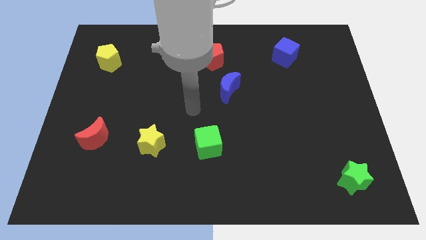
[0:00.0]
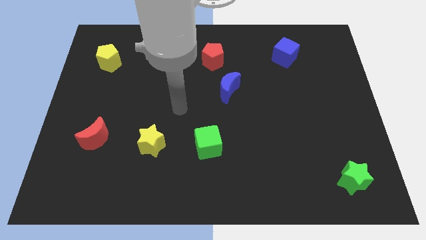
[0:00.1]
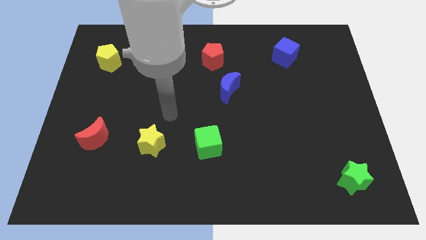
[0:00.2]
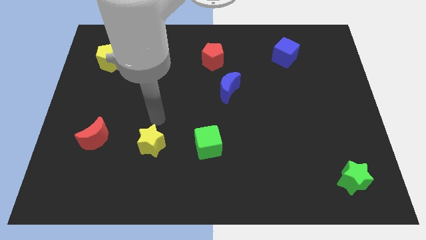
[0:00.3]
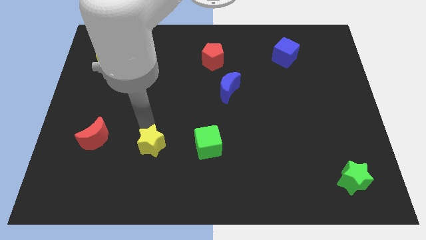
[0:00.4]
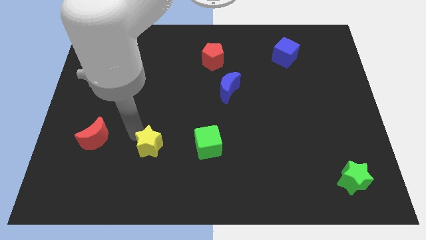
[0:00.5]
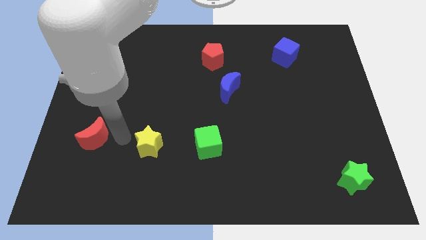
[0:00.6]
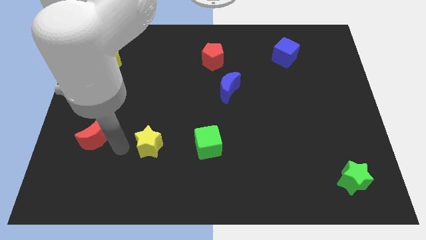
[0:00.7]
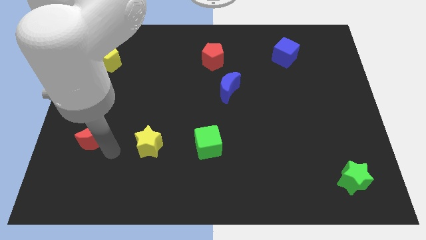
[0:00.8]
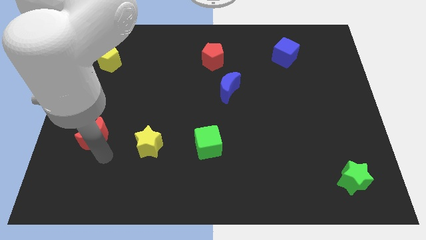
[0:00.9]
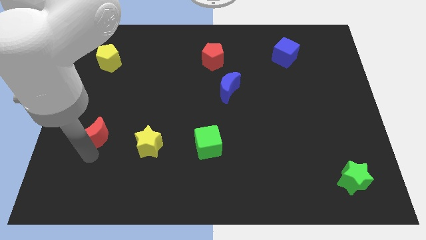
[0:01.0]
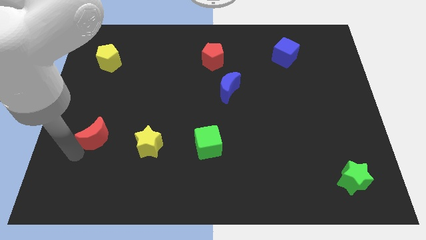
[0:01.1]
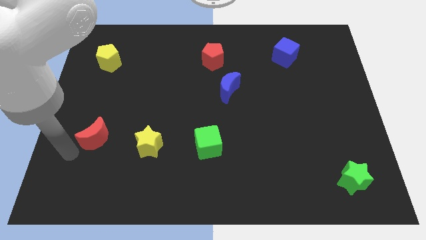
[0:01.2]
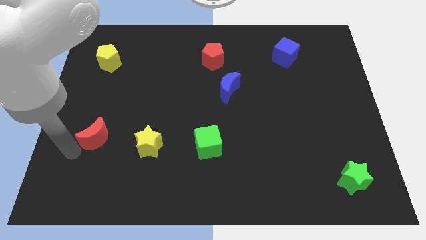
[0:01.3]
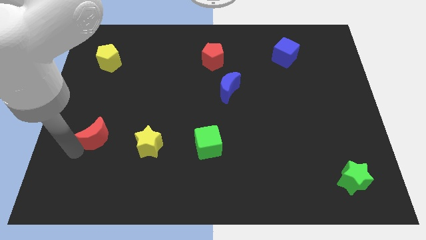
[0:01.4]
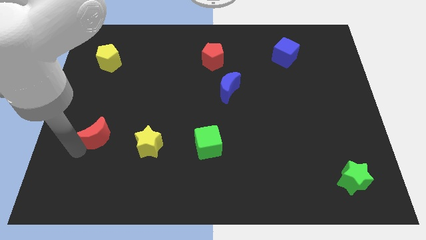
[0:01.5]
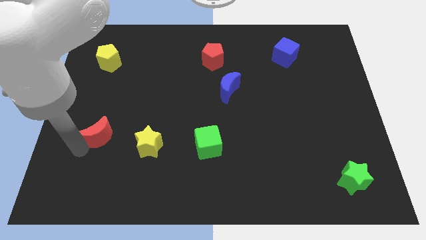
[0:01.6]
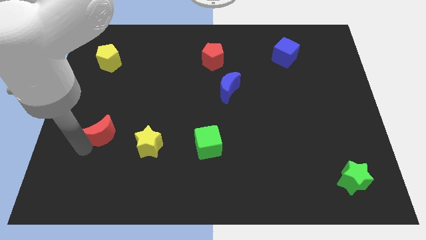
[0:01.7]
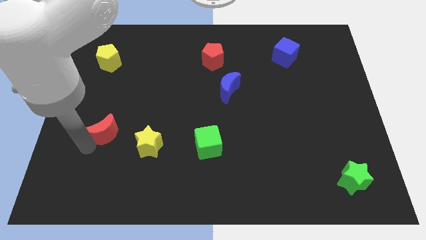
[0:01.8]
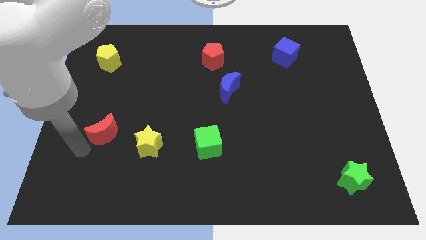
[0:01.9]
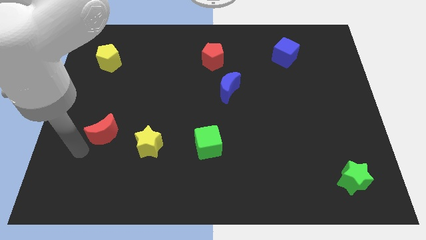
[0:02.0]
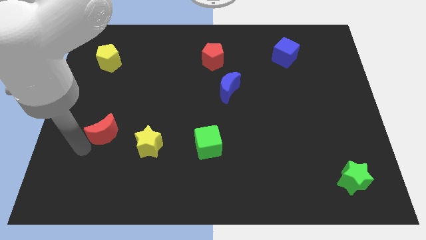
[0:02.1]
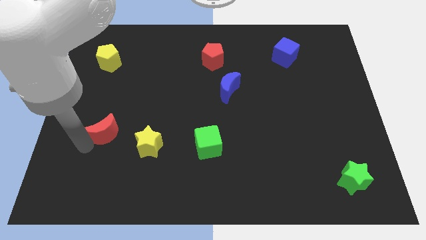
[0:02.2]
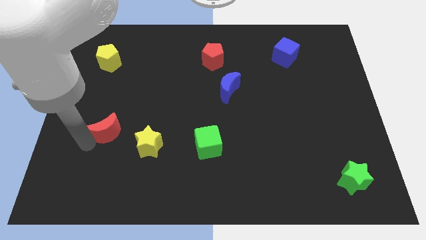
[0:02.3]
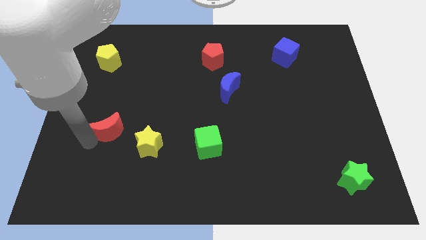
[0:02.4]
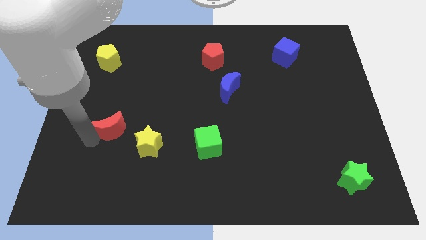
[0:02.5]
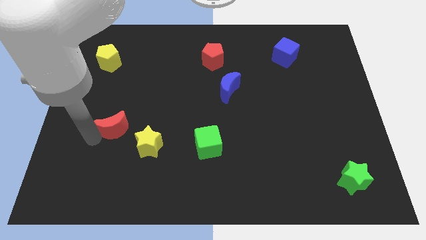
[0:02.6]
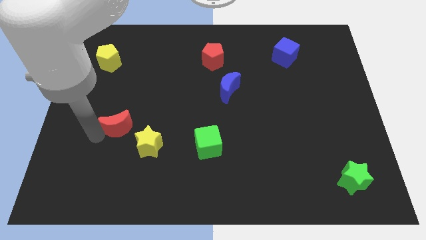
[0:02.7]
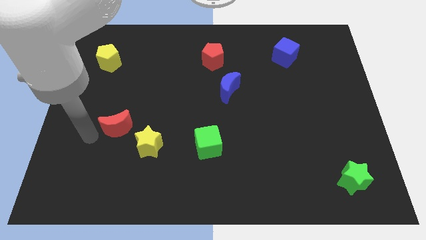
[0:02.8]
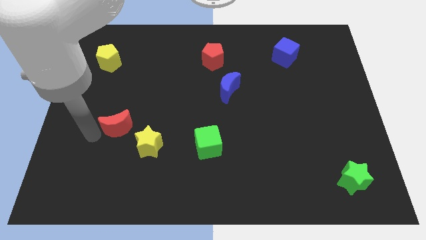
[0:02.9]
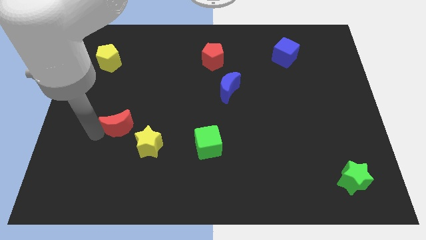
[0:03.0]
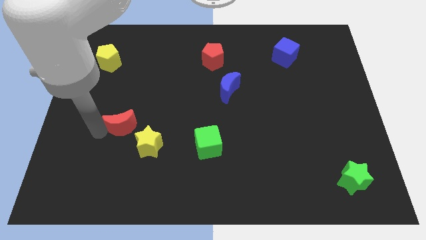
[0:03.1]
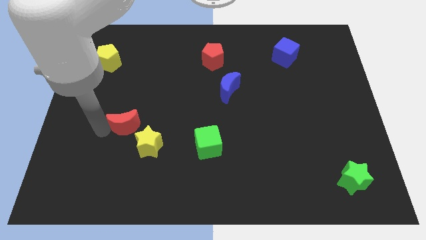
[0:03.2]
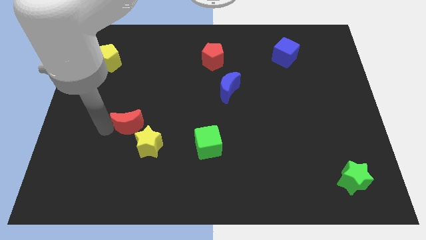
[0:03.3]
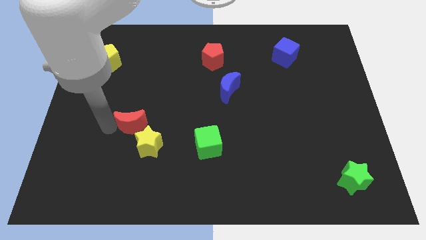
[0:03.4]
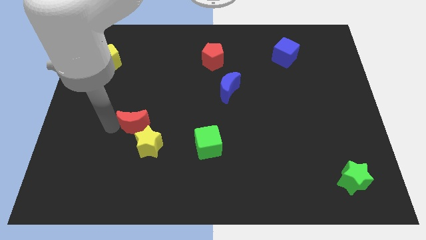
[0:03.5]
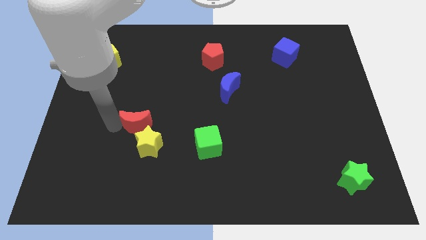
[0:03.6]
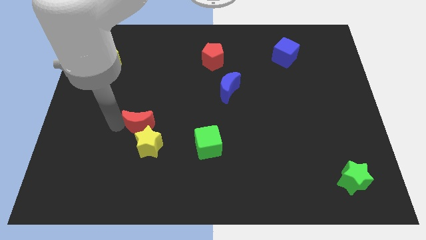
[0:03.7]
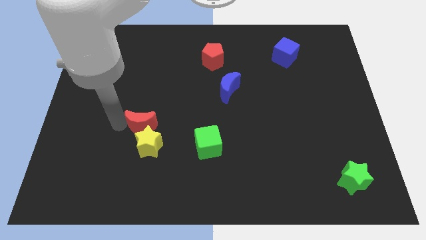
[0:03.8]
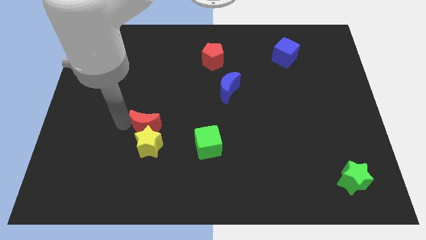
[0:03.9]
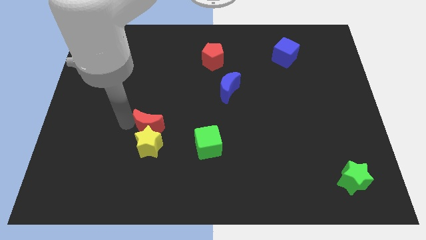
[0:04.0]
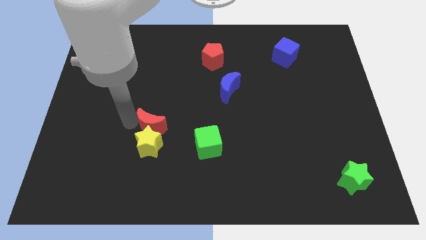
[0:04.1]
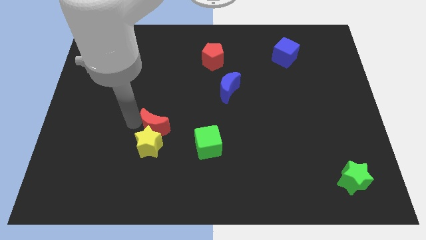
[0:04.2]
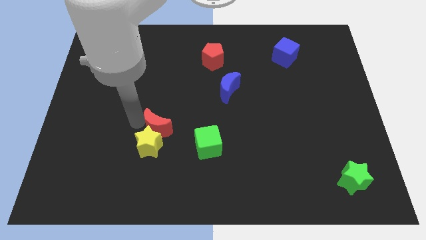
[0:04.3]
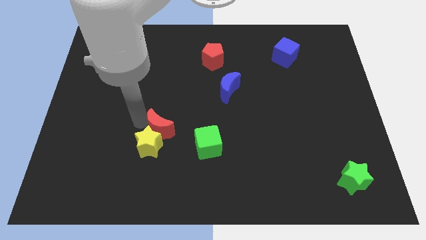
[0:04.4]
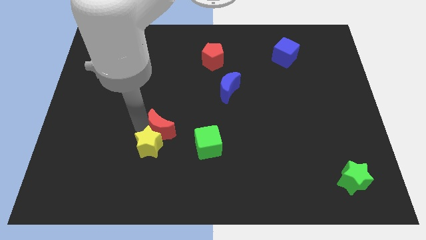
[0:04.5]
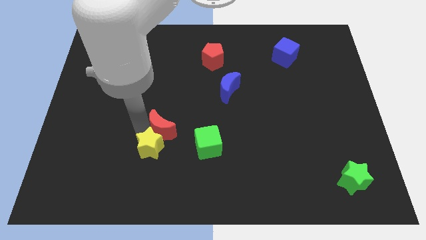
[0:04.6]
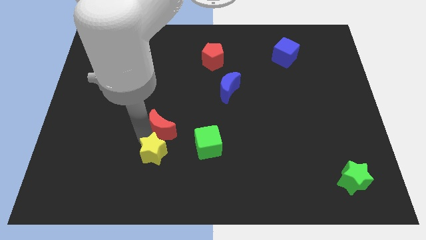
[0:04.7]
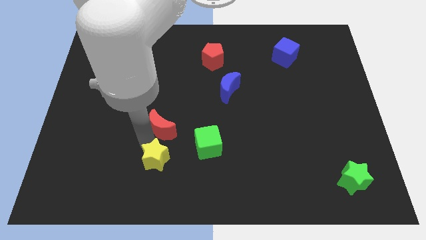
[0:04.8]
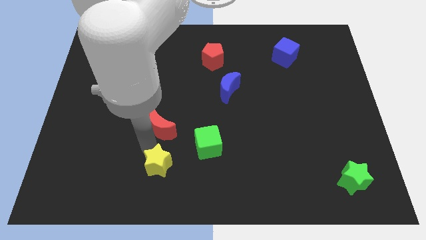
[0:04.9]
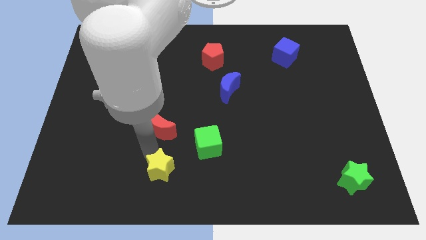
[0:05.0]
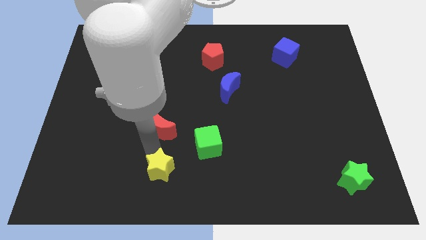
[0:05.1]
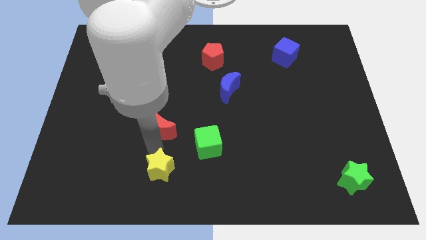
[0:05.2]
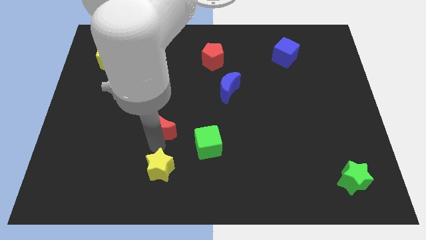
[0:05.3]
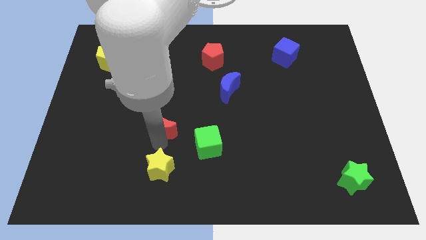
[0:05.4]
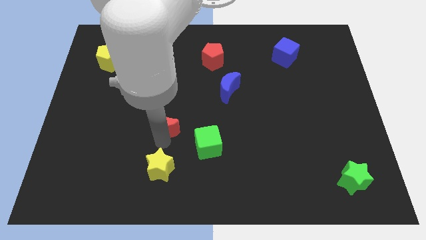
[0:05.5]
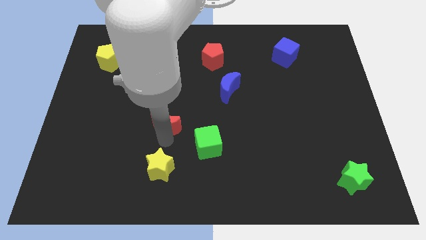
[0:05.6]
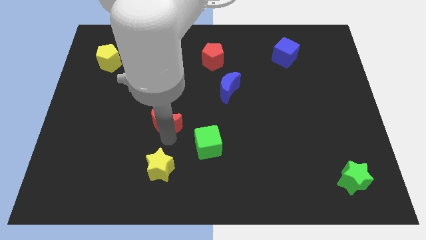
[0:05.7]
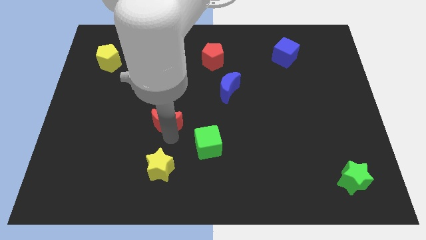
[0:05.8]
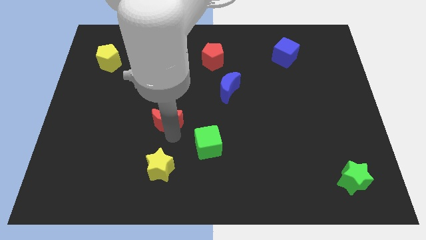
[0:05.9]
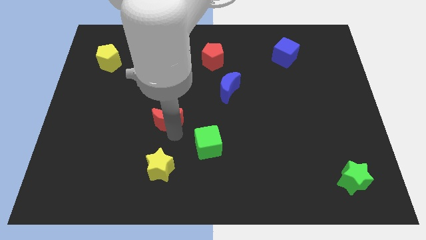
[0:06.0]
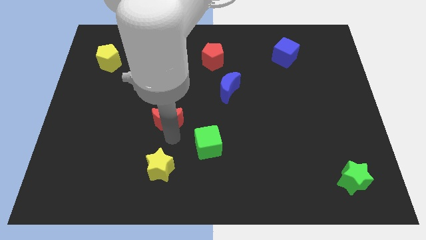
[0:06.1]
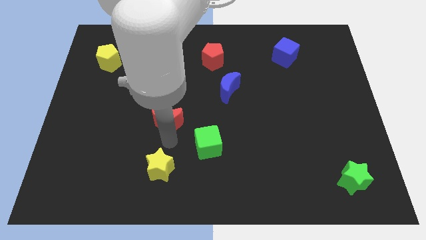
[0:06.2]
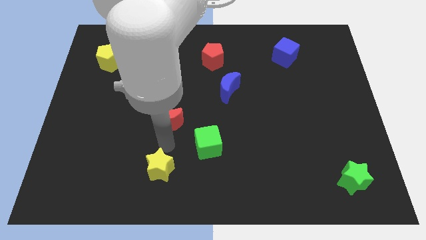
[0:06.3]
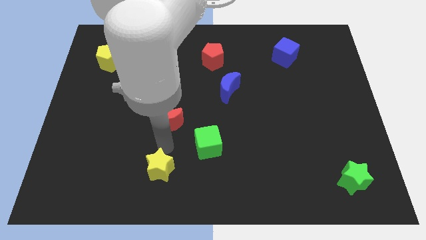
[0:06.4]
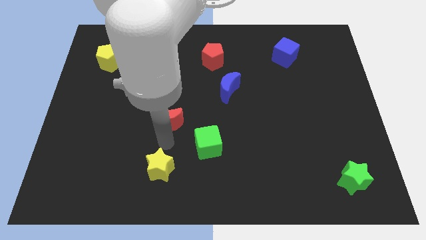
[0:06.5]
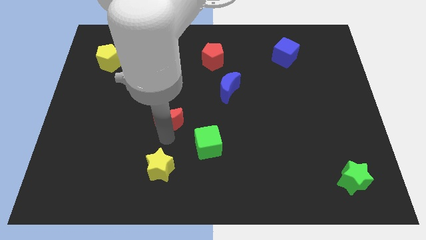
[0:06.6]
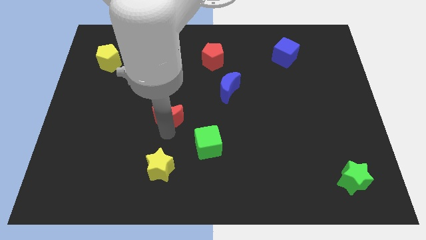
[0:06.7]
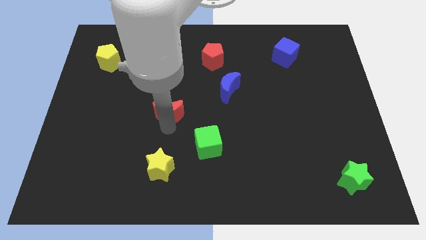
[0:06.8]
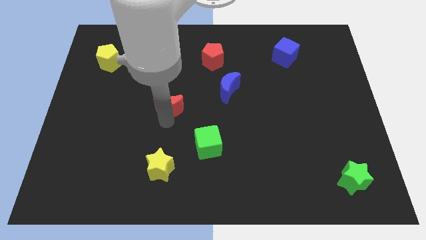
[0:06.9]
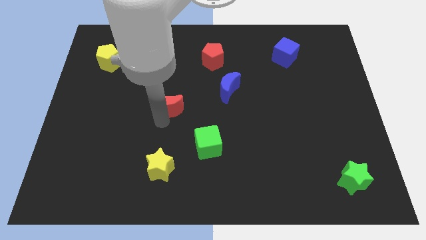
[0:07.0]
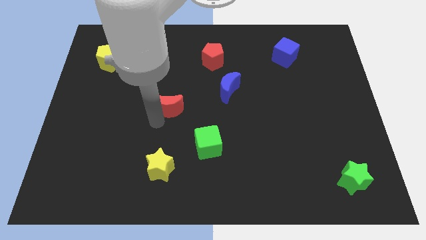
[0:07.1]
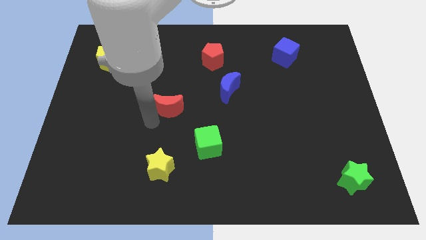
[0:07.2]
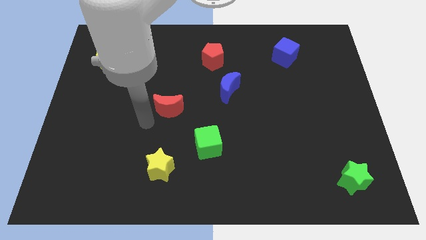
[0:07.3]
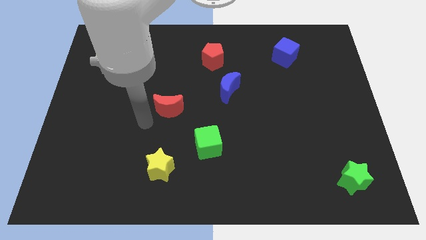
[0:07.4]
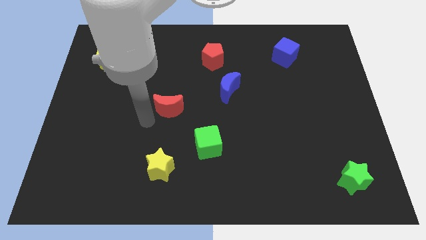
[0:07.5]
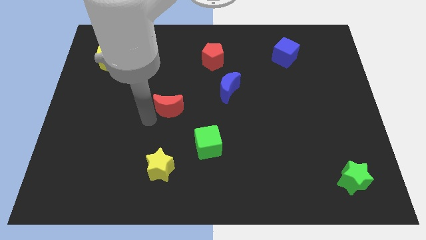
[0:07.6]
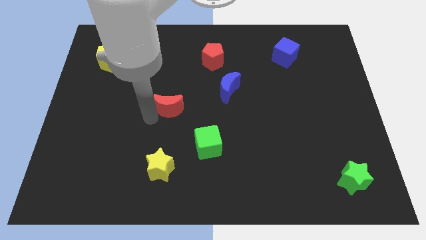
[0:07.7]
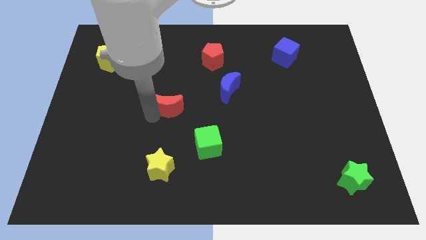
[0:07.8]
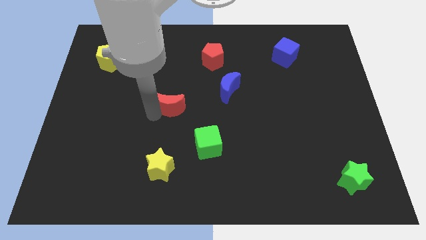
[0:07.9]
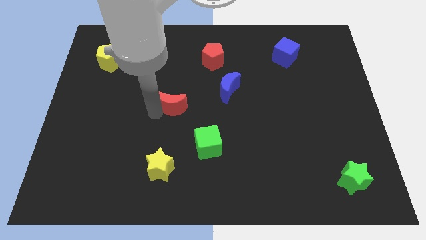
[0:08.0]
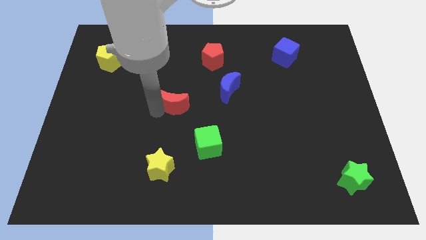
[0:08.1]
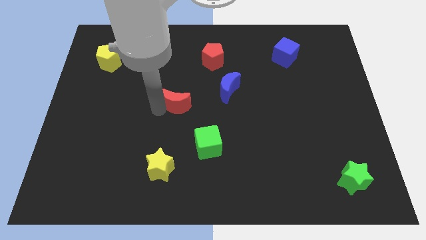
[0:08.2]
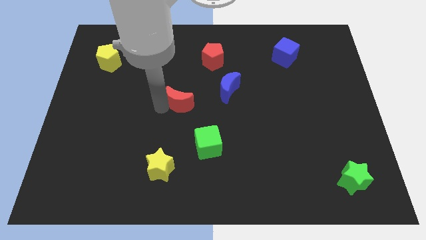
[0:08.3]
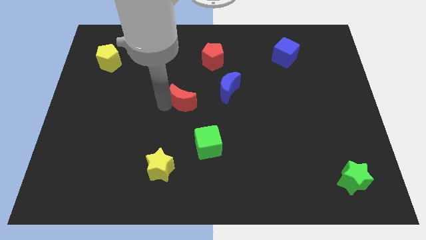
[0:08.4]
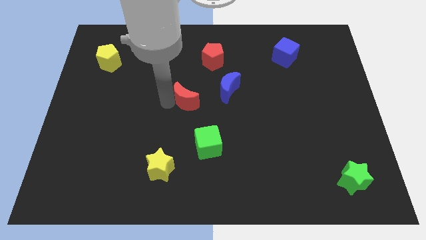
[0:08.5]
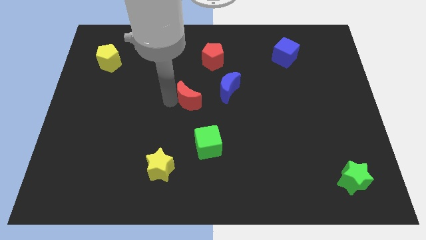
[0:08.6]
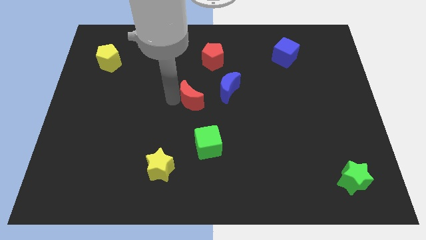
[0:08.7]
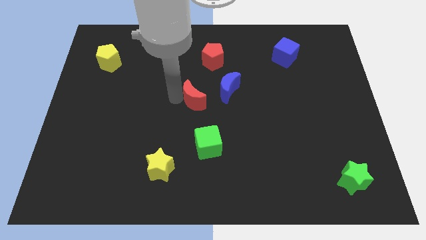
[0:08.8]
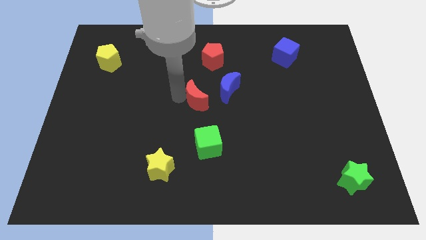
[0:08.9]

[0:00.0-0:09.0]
move the red moon to the bottom of the red pentagon
